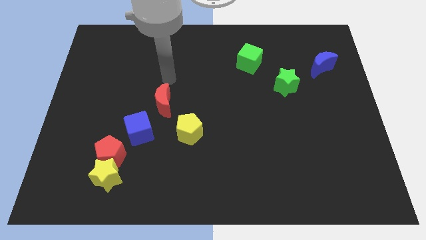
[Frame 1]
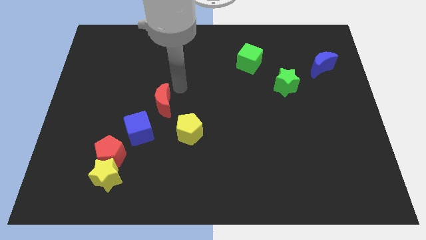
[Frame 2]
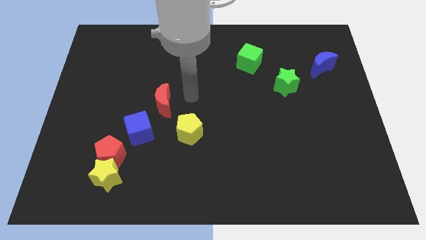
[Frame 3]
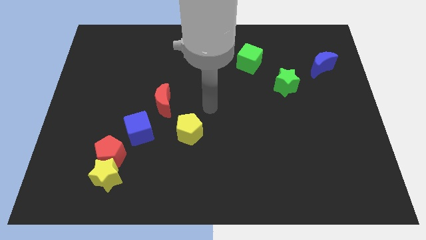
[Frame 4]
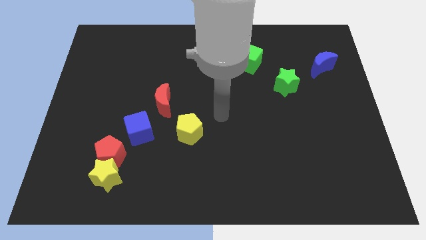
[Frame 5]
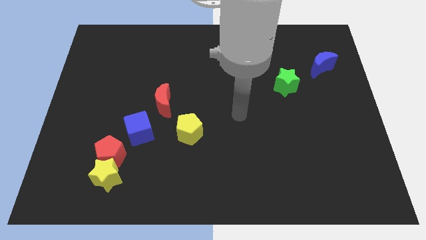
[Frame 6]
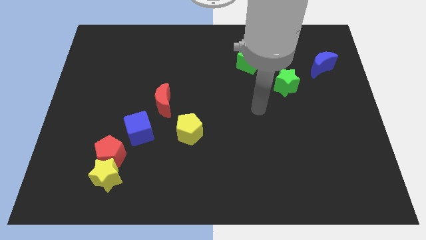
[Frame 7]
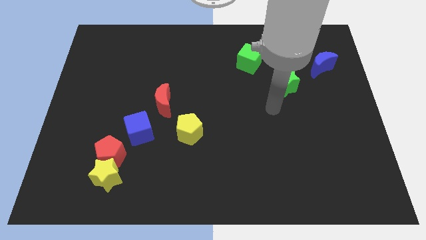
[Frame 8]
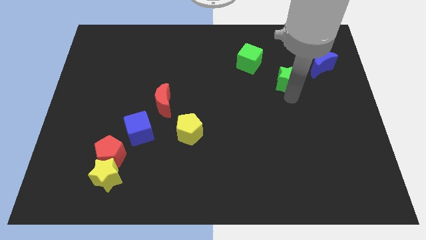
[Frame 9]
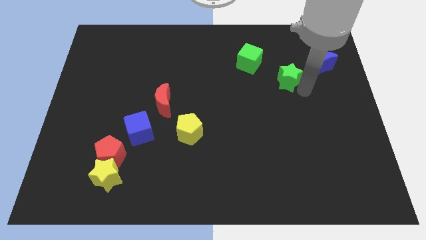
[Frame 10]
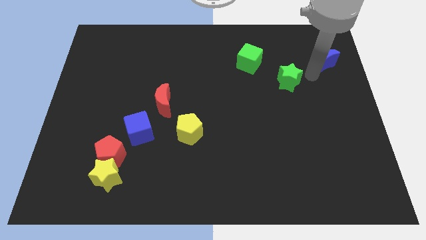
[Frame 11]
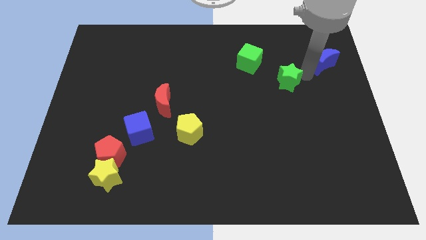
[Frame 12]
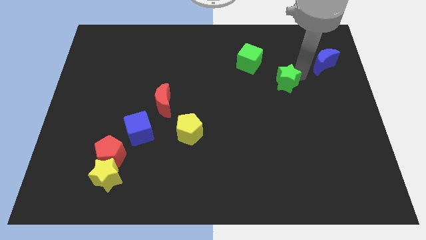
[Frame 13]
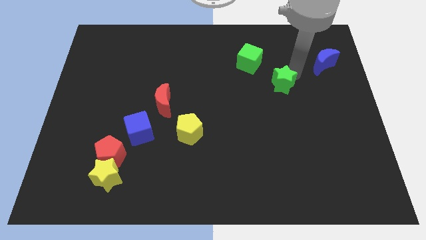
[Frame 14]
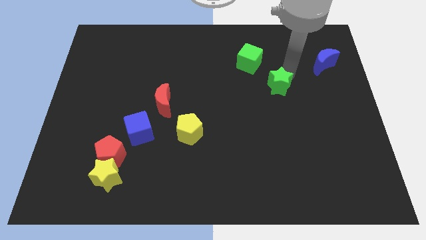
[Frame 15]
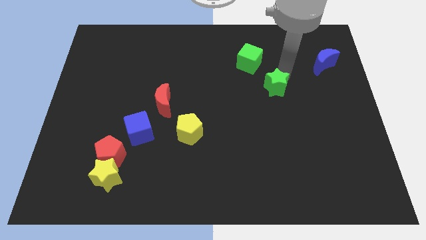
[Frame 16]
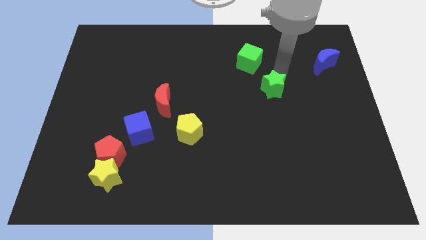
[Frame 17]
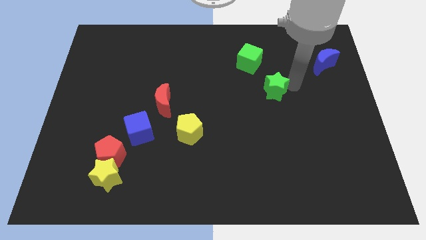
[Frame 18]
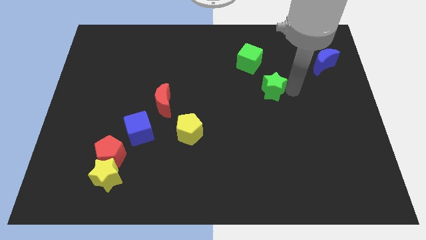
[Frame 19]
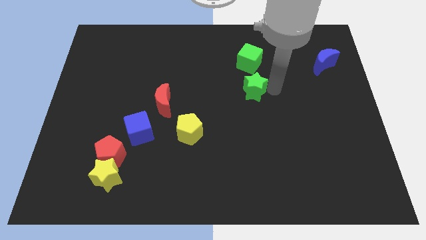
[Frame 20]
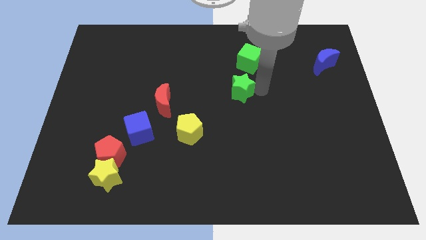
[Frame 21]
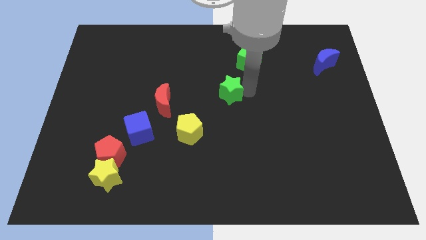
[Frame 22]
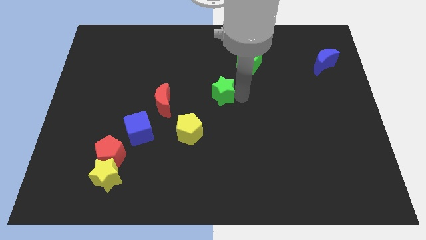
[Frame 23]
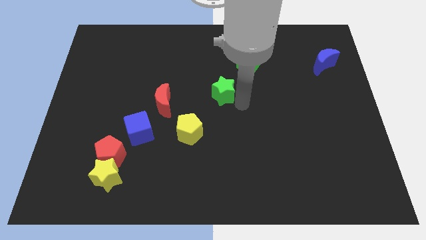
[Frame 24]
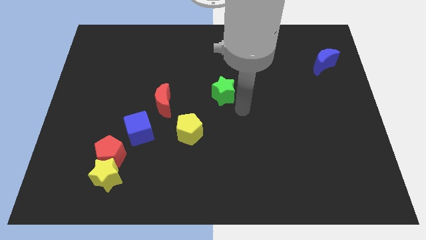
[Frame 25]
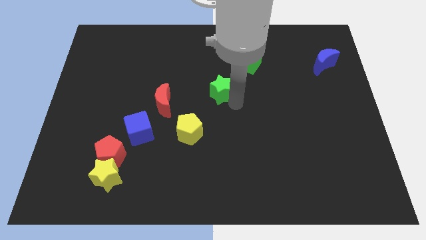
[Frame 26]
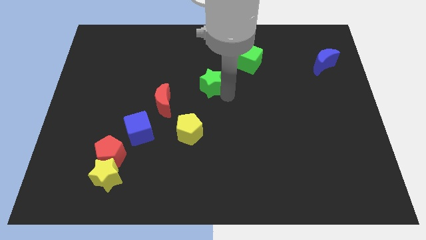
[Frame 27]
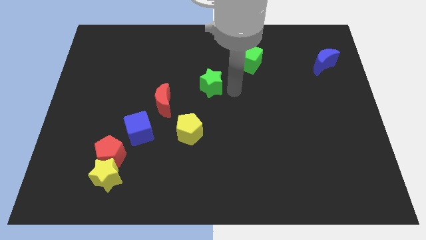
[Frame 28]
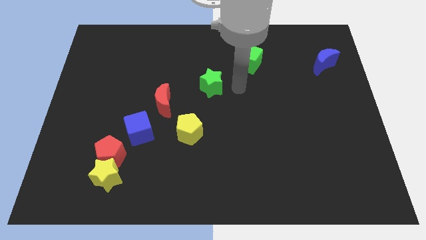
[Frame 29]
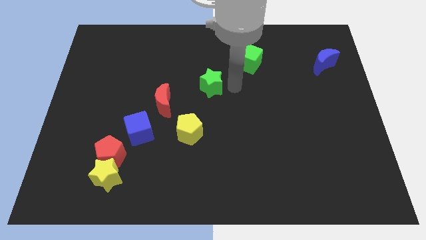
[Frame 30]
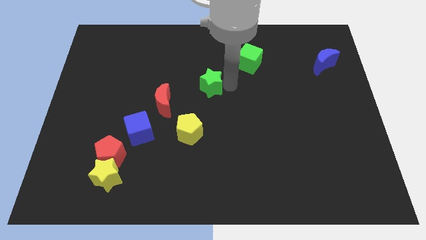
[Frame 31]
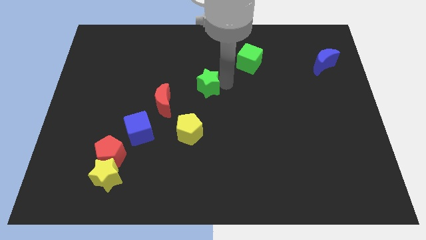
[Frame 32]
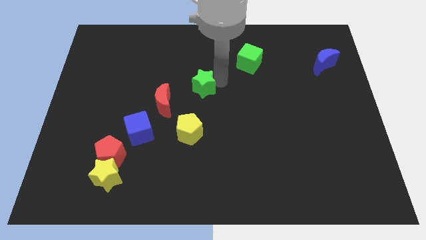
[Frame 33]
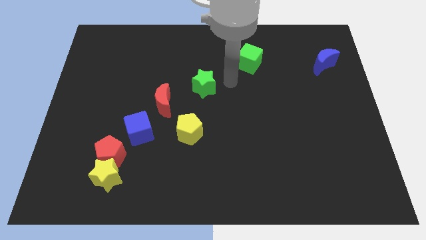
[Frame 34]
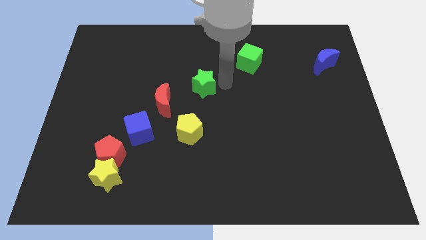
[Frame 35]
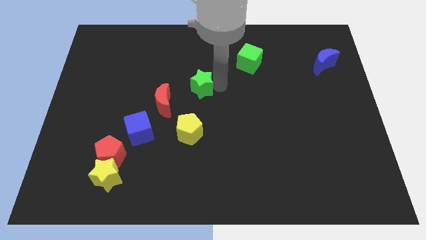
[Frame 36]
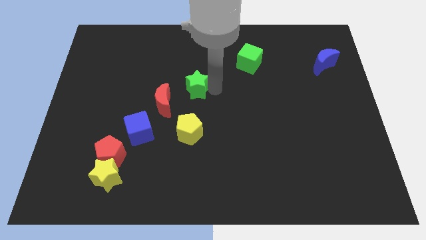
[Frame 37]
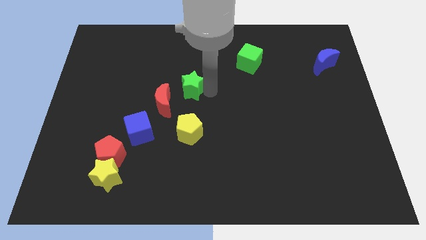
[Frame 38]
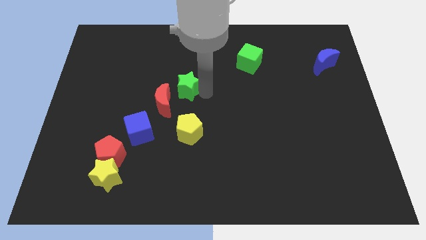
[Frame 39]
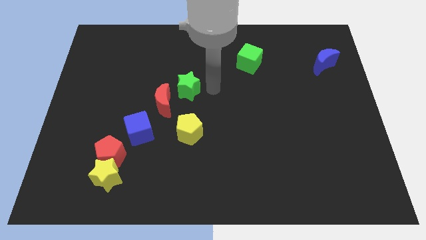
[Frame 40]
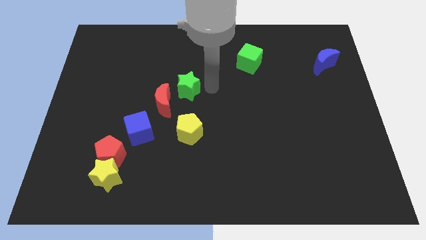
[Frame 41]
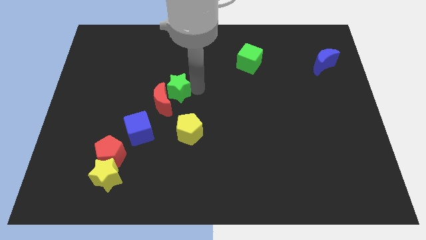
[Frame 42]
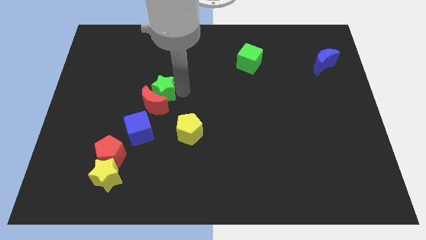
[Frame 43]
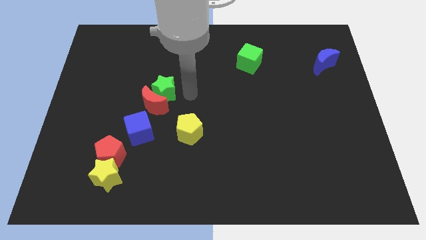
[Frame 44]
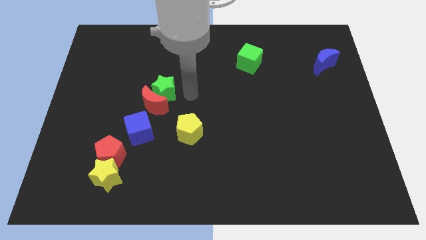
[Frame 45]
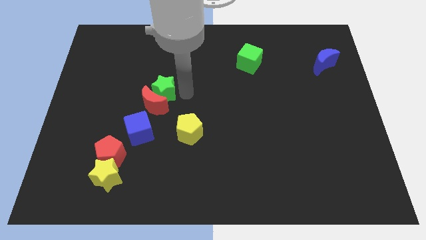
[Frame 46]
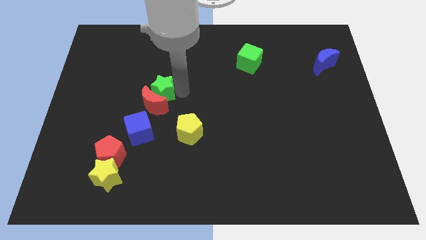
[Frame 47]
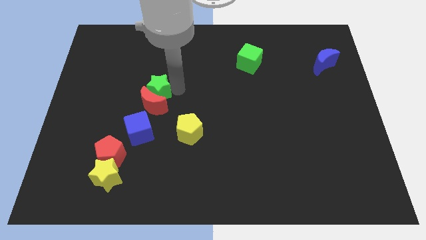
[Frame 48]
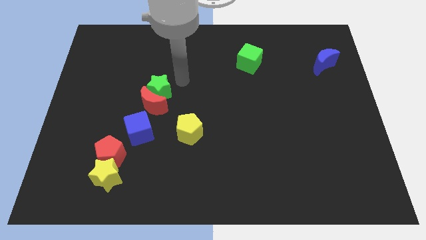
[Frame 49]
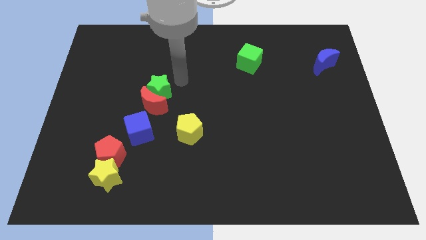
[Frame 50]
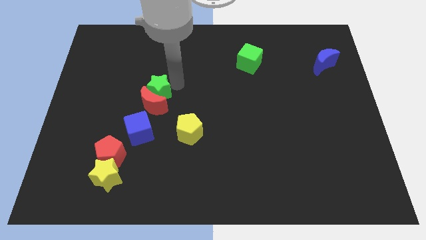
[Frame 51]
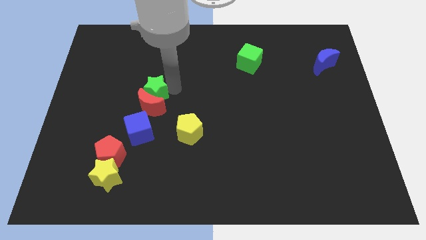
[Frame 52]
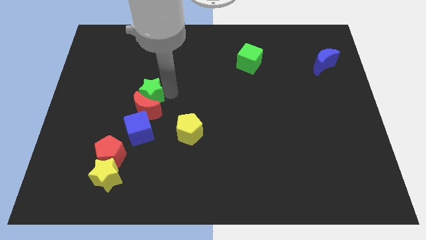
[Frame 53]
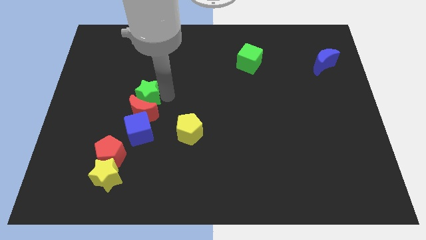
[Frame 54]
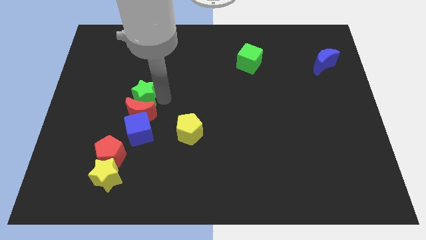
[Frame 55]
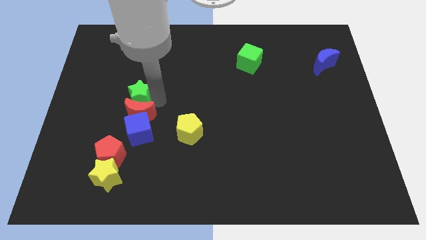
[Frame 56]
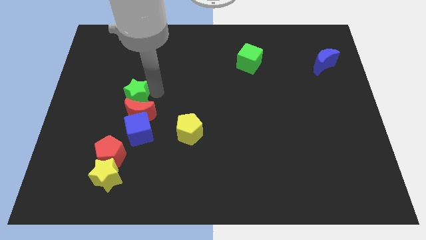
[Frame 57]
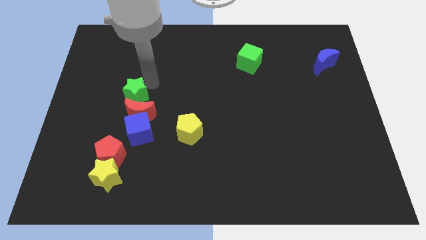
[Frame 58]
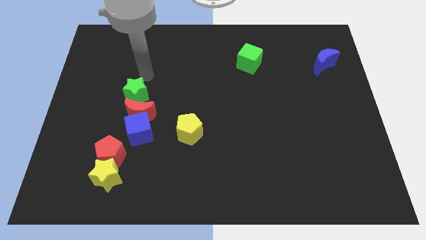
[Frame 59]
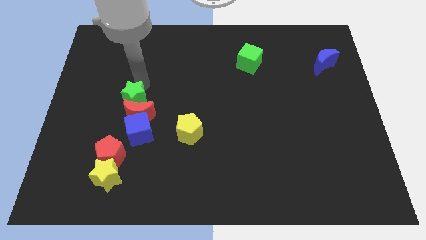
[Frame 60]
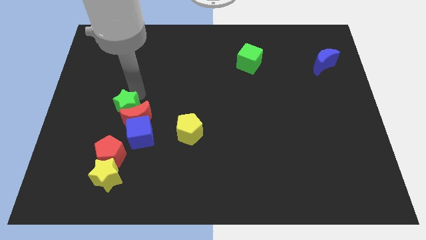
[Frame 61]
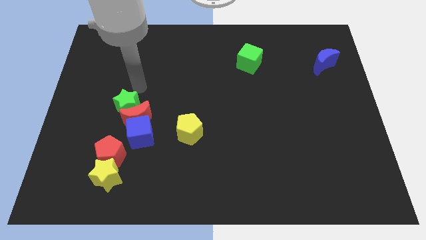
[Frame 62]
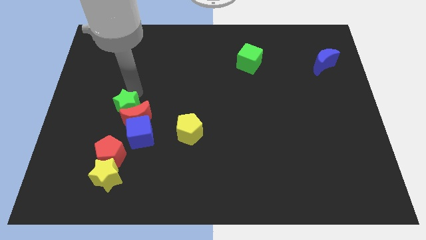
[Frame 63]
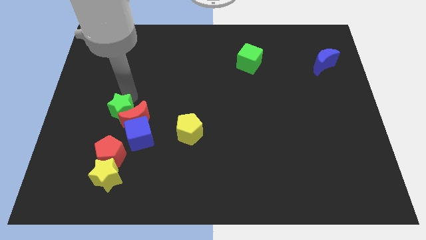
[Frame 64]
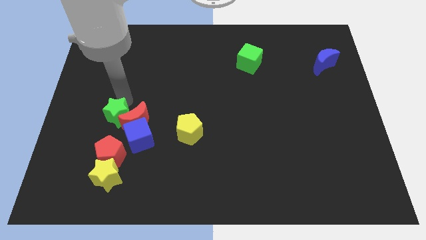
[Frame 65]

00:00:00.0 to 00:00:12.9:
move the green star to the top side of the yellow star
